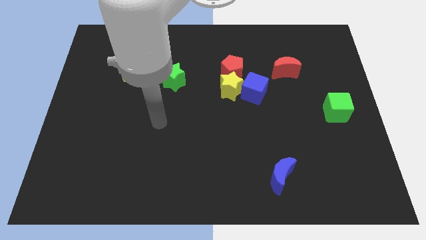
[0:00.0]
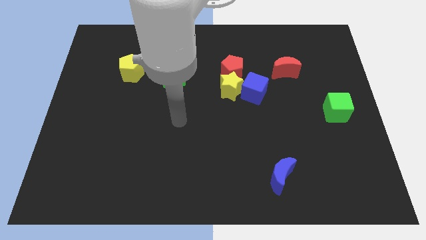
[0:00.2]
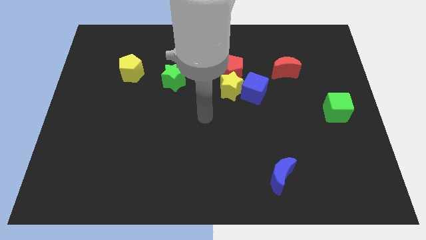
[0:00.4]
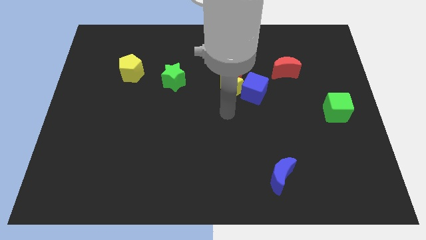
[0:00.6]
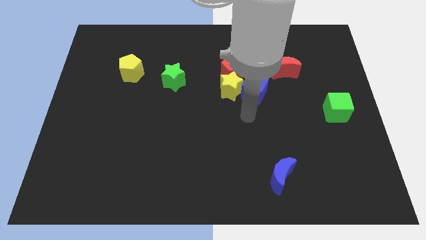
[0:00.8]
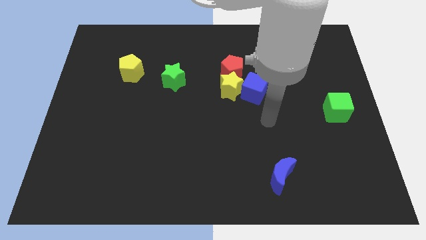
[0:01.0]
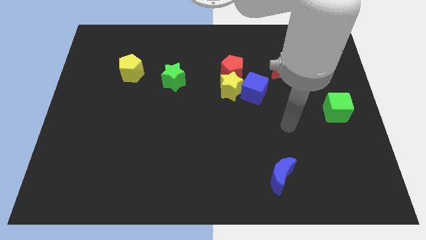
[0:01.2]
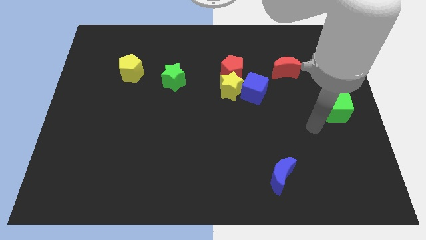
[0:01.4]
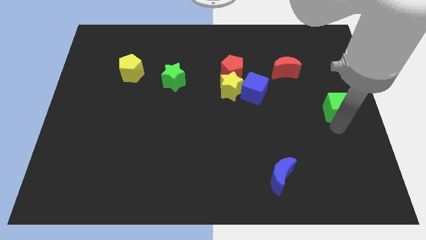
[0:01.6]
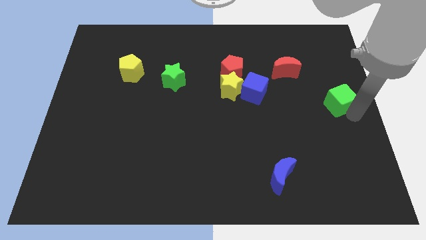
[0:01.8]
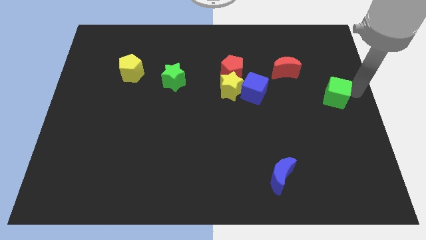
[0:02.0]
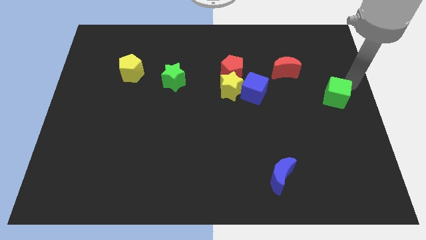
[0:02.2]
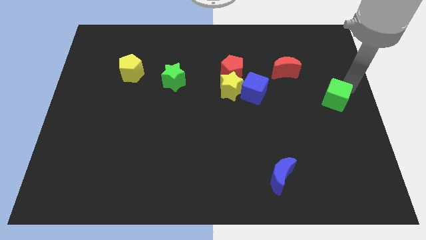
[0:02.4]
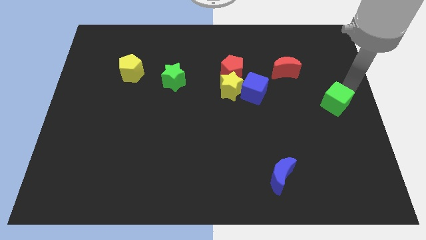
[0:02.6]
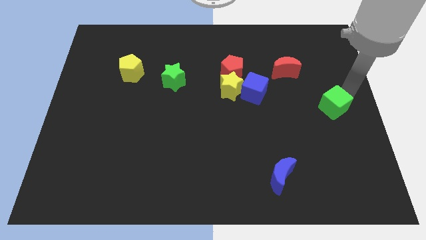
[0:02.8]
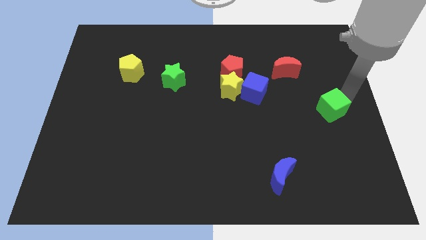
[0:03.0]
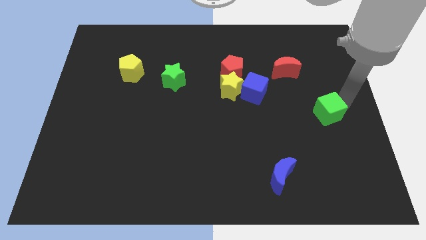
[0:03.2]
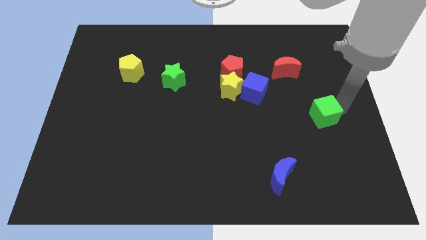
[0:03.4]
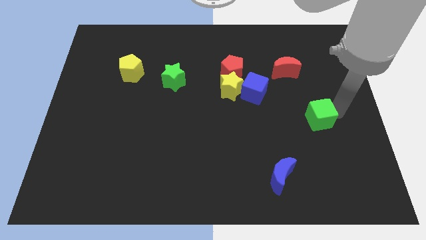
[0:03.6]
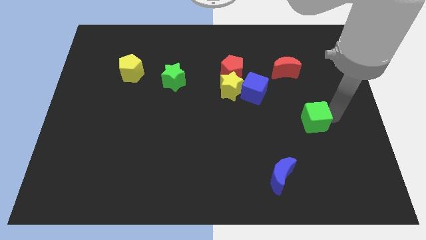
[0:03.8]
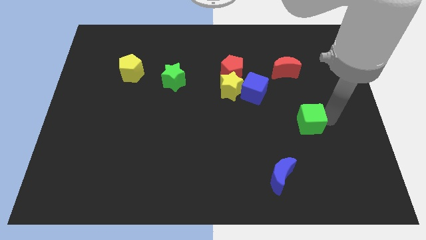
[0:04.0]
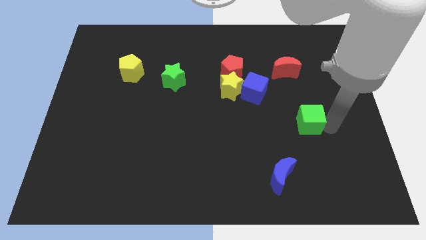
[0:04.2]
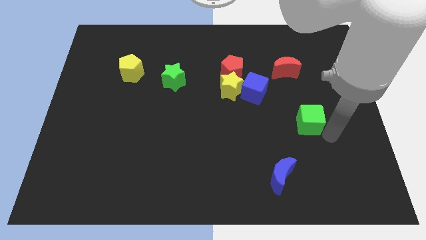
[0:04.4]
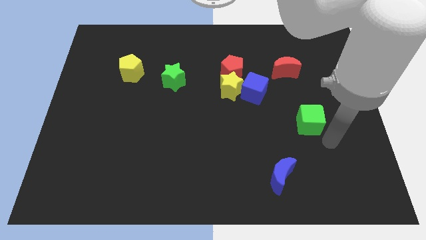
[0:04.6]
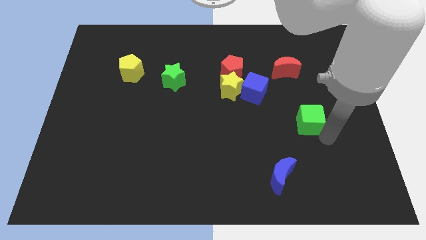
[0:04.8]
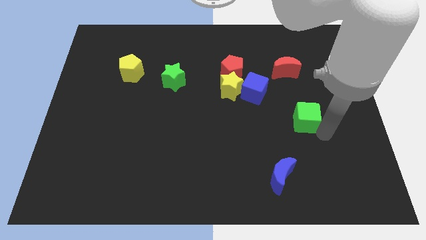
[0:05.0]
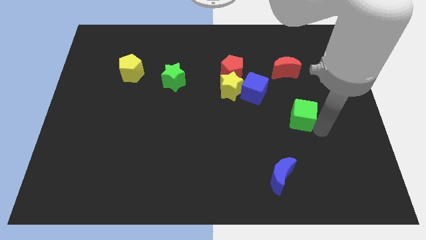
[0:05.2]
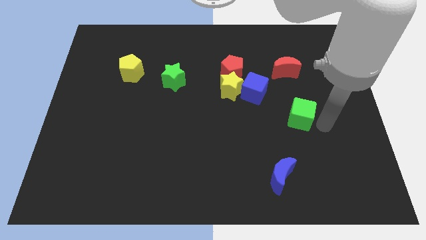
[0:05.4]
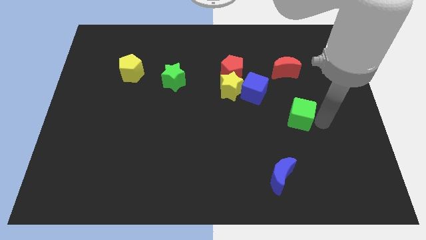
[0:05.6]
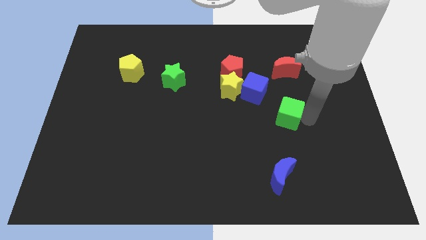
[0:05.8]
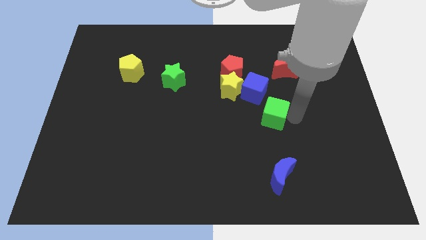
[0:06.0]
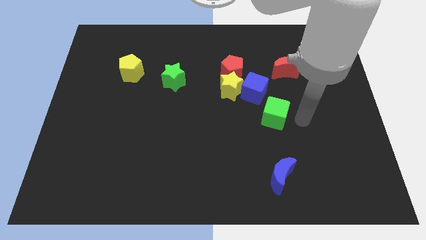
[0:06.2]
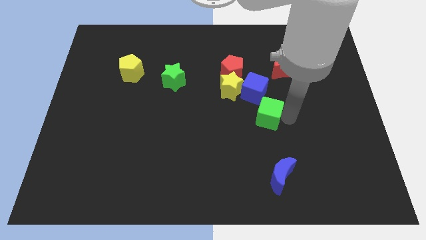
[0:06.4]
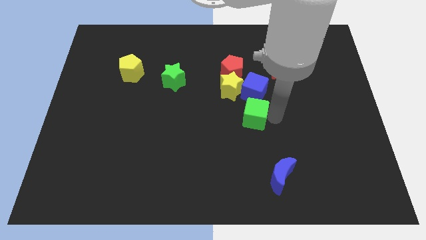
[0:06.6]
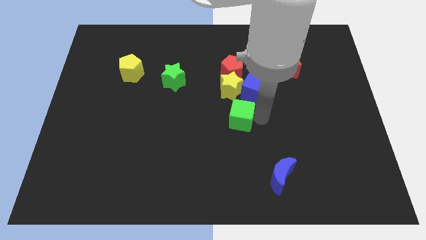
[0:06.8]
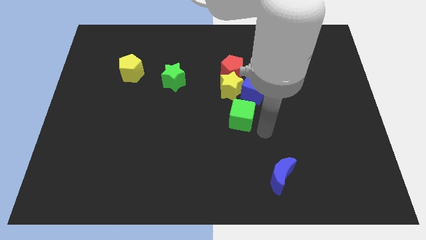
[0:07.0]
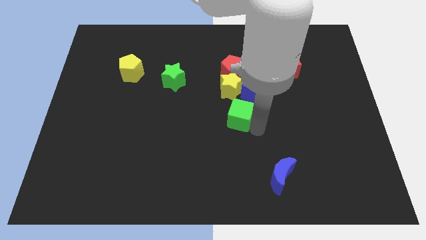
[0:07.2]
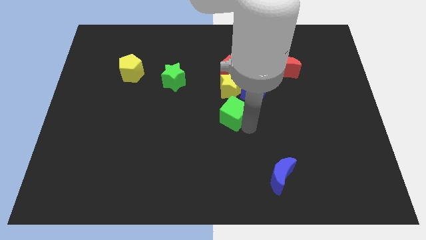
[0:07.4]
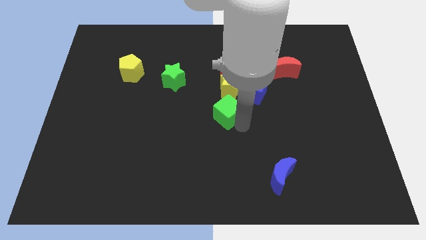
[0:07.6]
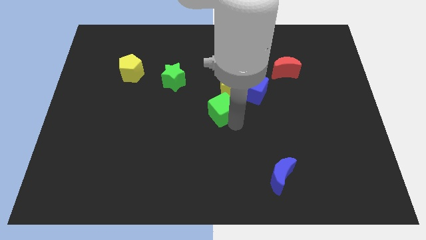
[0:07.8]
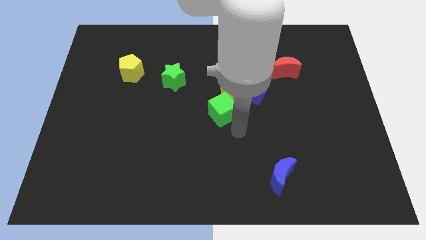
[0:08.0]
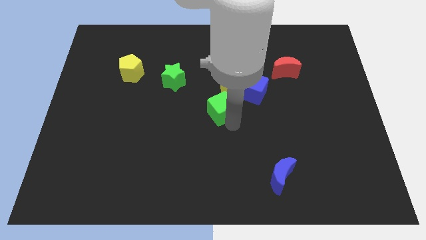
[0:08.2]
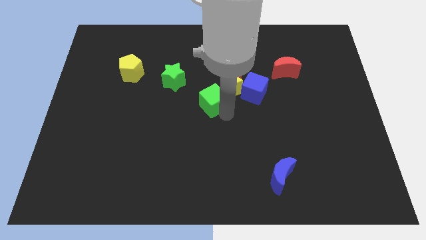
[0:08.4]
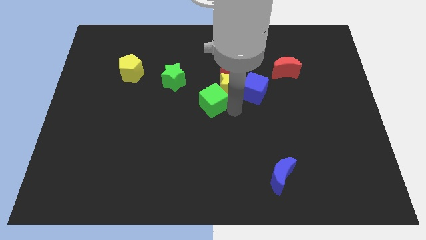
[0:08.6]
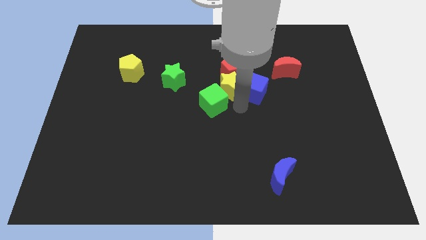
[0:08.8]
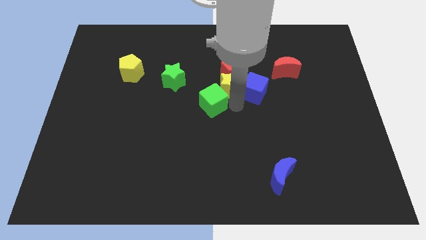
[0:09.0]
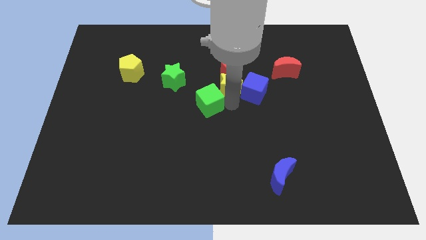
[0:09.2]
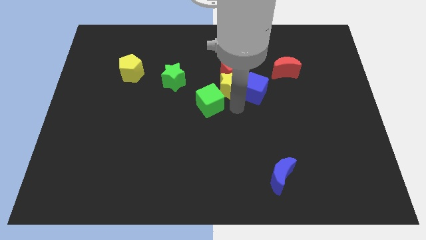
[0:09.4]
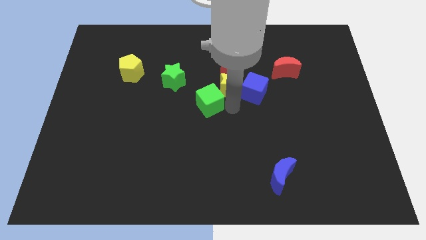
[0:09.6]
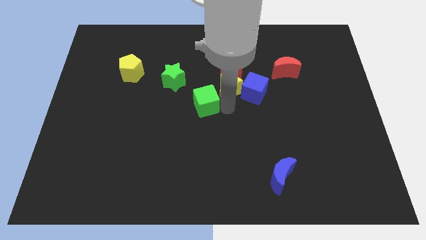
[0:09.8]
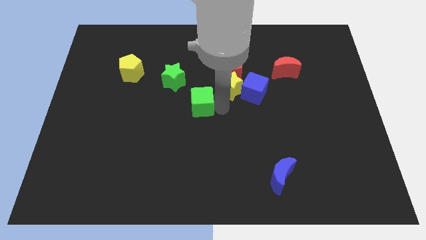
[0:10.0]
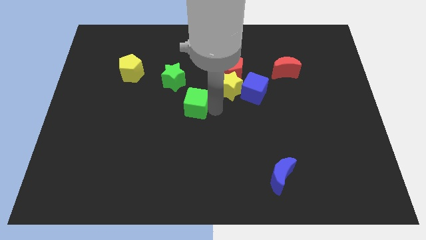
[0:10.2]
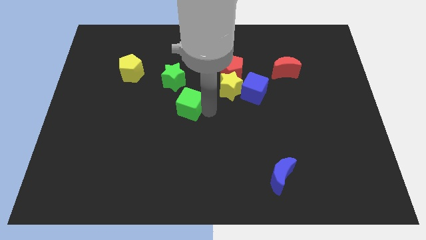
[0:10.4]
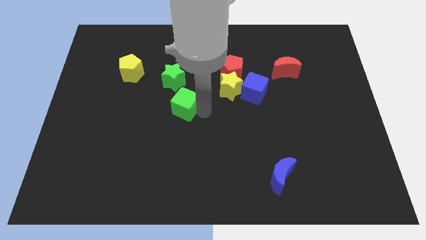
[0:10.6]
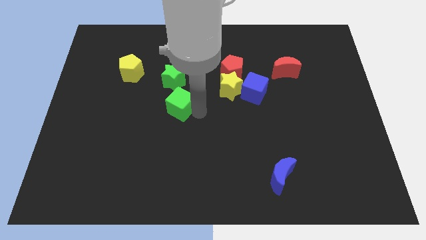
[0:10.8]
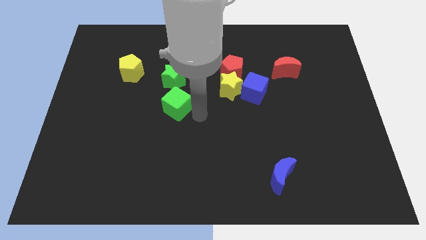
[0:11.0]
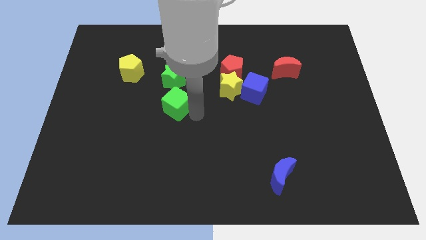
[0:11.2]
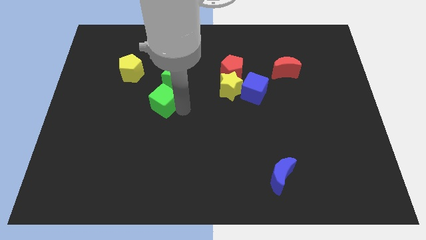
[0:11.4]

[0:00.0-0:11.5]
push the green cube to the bottom left of the green star
